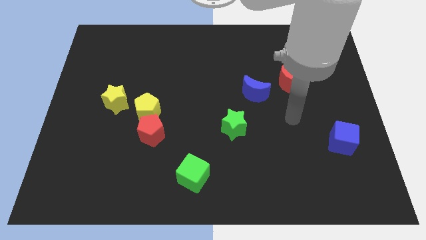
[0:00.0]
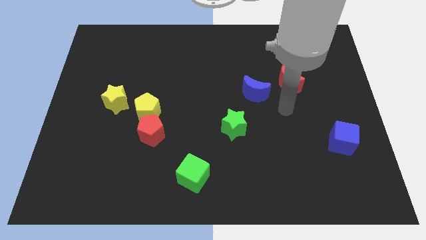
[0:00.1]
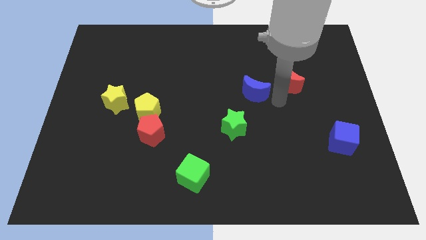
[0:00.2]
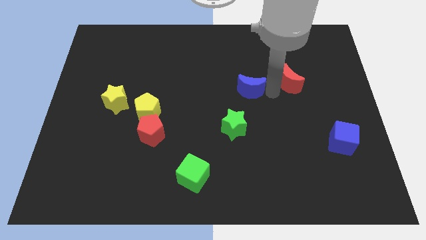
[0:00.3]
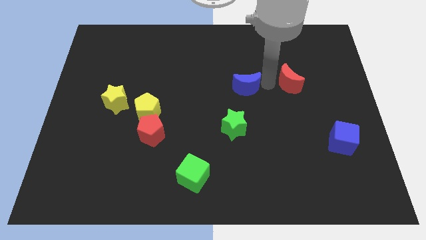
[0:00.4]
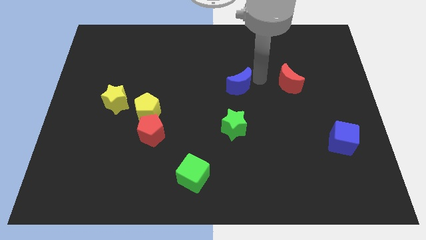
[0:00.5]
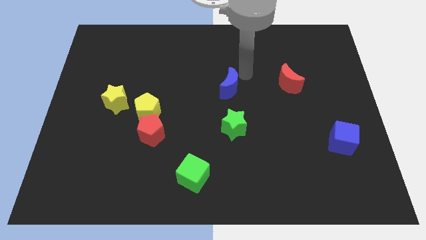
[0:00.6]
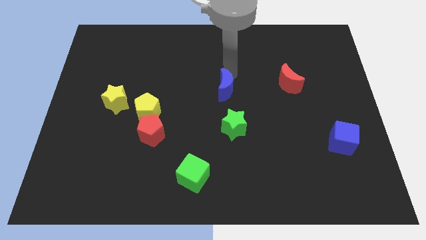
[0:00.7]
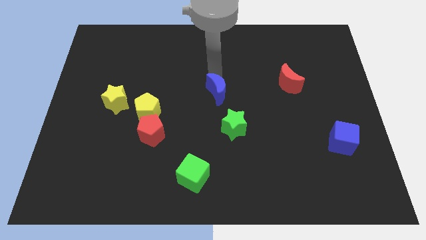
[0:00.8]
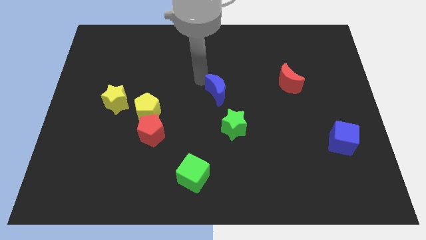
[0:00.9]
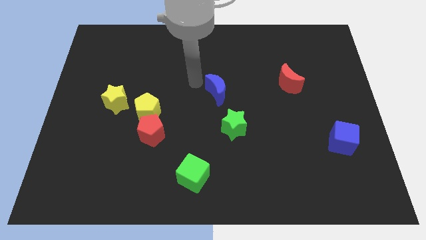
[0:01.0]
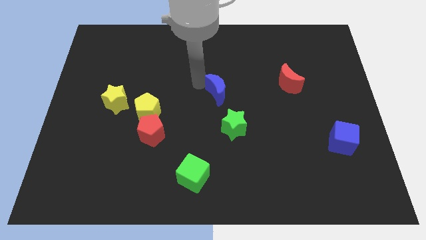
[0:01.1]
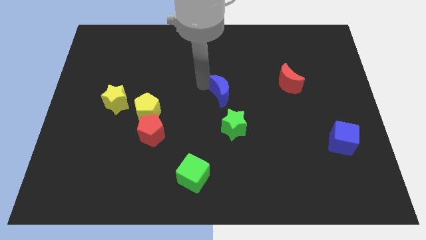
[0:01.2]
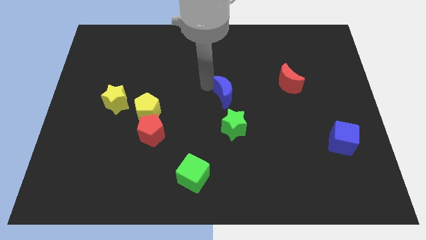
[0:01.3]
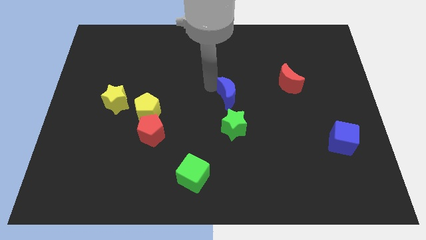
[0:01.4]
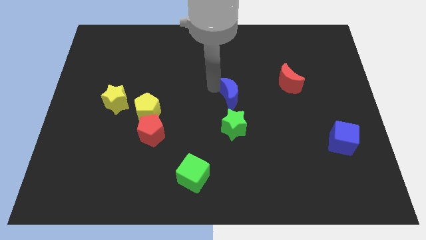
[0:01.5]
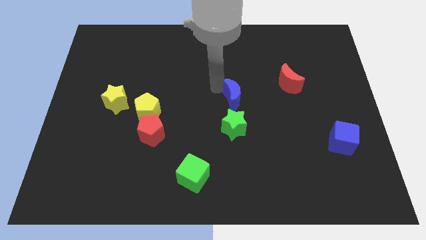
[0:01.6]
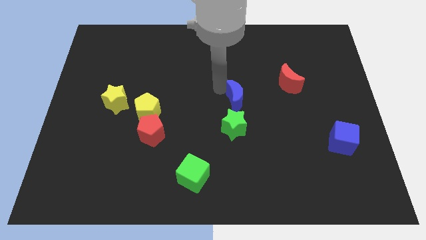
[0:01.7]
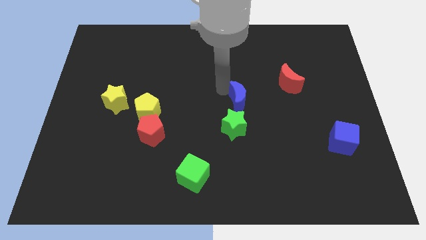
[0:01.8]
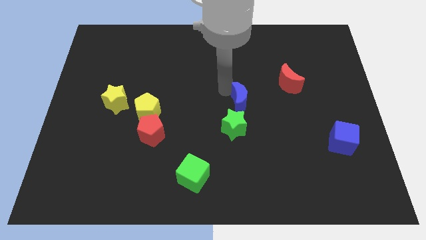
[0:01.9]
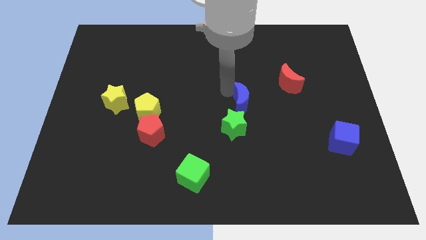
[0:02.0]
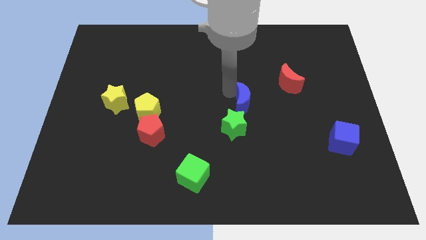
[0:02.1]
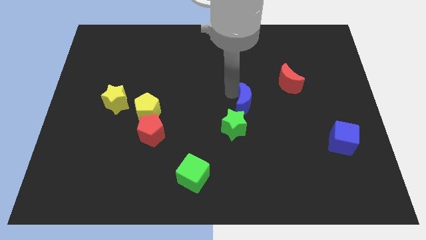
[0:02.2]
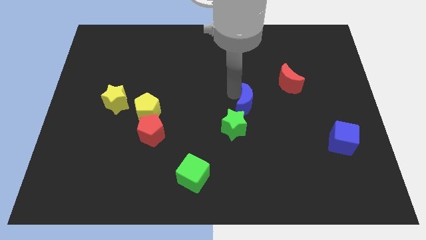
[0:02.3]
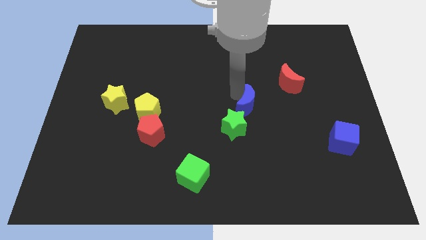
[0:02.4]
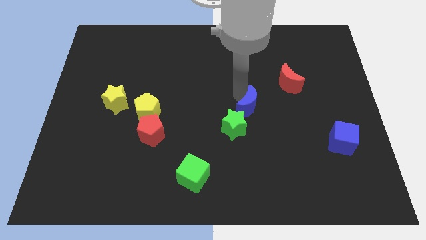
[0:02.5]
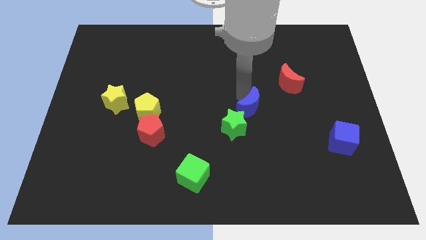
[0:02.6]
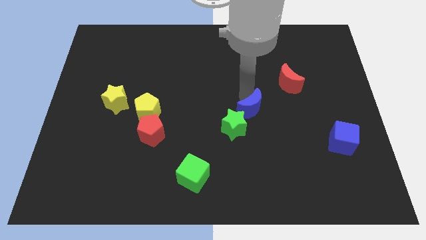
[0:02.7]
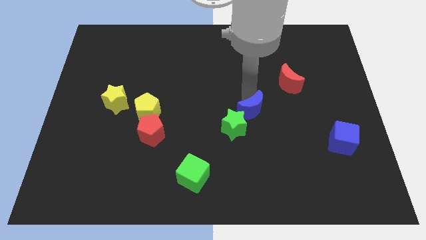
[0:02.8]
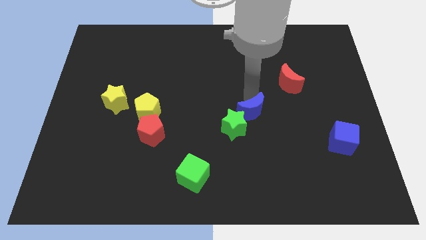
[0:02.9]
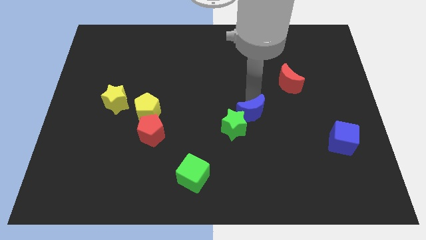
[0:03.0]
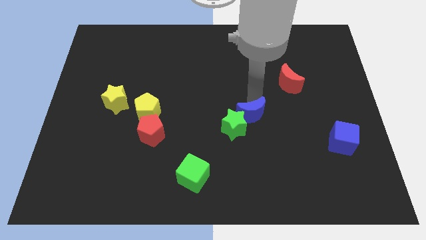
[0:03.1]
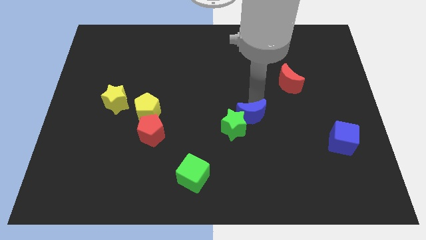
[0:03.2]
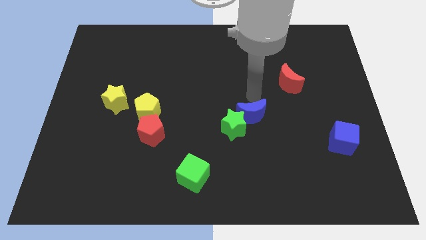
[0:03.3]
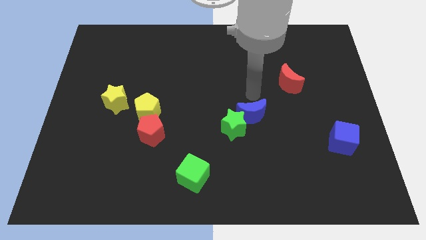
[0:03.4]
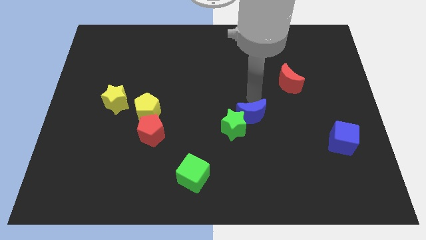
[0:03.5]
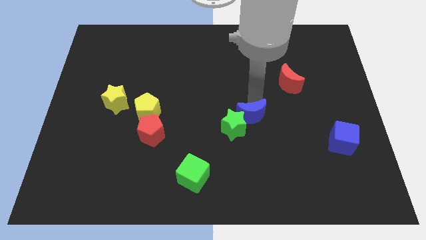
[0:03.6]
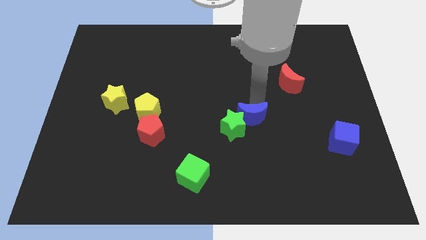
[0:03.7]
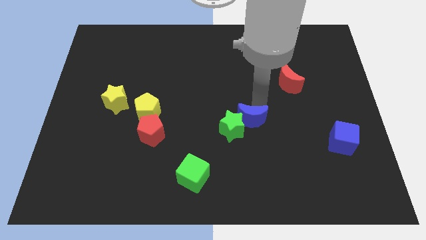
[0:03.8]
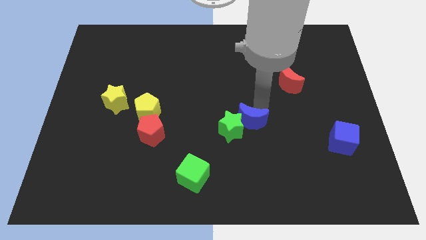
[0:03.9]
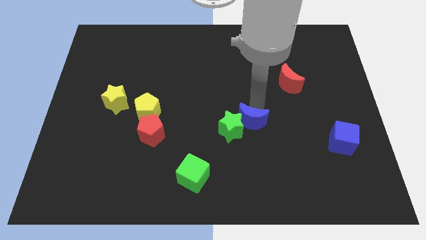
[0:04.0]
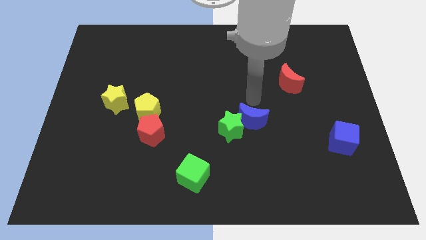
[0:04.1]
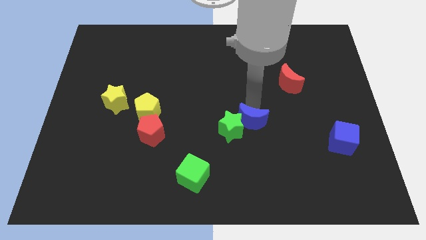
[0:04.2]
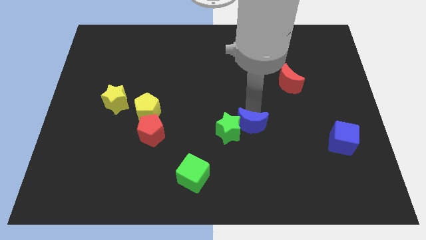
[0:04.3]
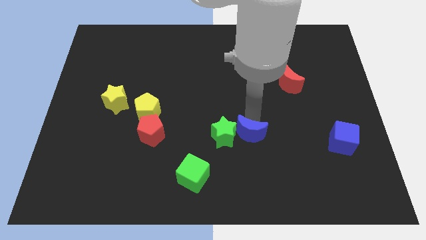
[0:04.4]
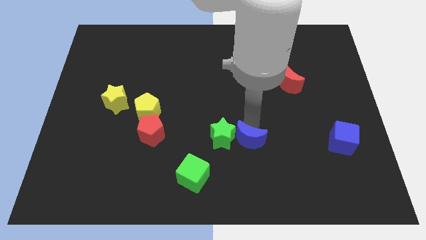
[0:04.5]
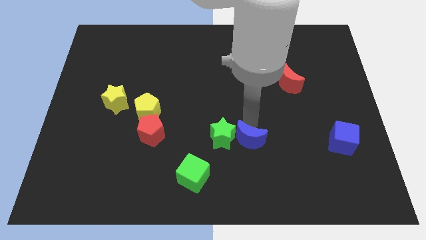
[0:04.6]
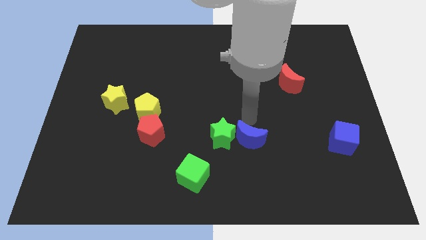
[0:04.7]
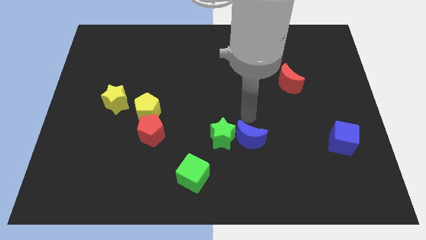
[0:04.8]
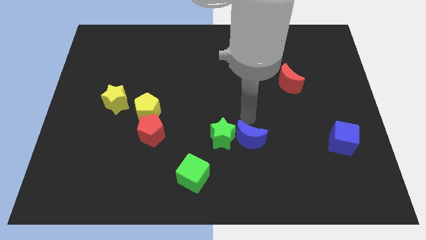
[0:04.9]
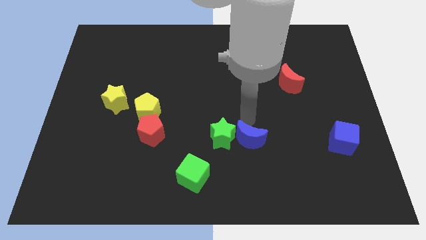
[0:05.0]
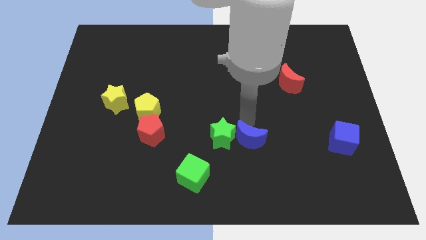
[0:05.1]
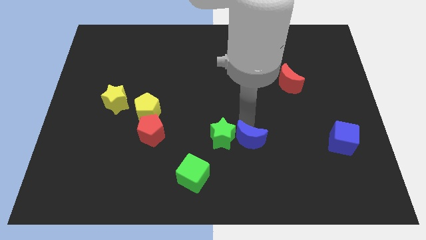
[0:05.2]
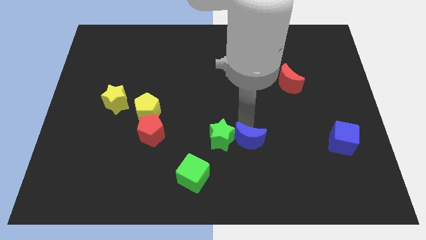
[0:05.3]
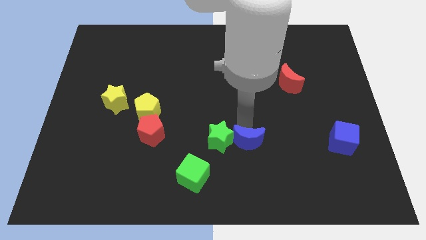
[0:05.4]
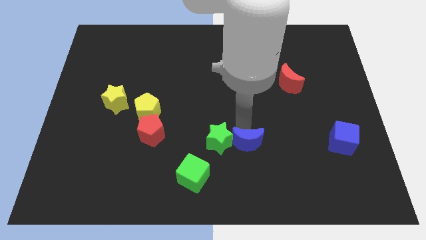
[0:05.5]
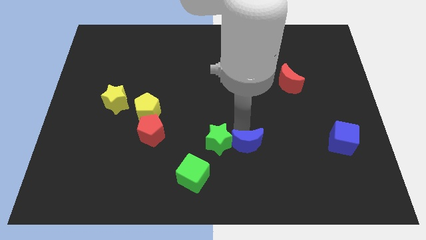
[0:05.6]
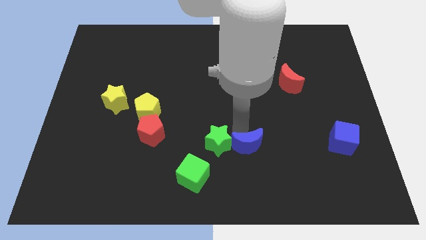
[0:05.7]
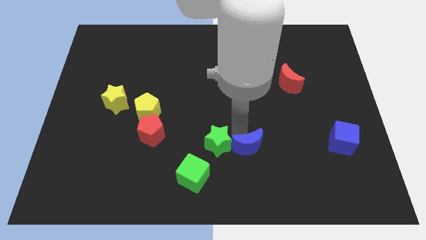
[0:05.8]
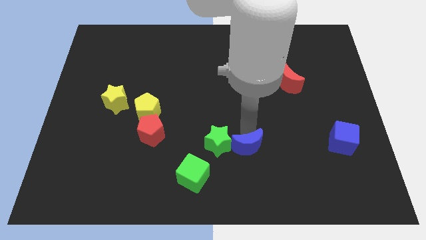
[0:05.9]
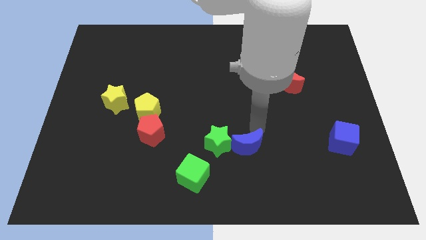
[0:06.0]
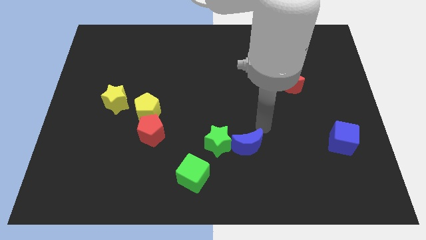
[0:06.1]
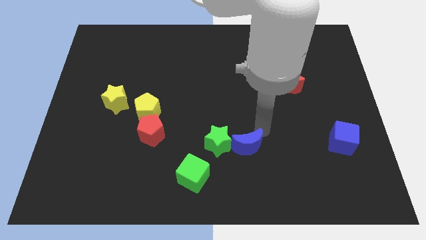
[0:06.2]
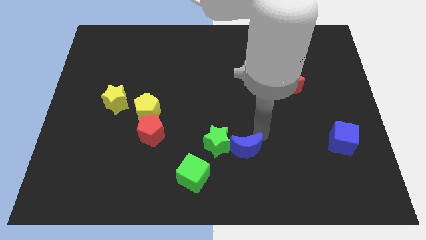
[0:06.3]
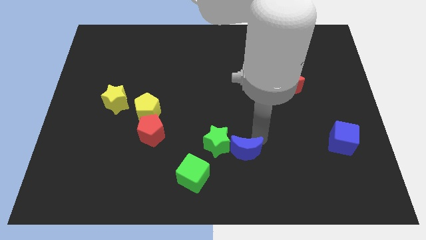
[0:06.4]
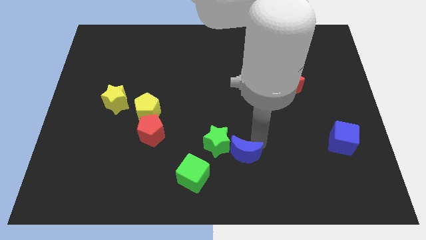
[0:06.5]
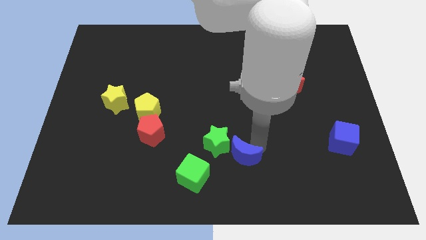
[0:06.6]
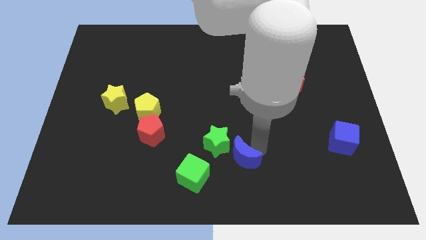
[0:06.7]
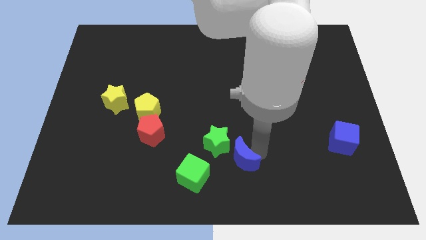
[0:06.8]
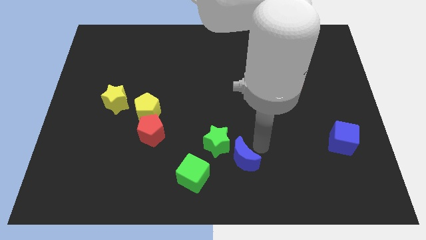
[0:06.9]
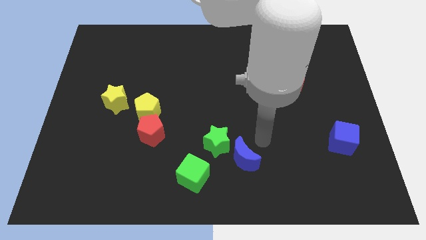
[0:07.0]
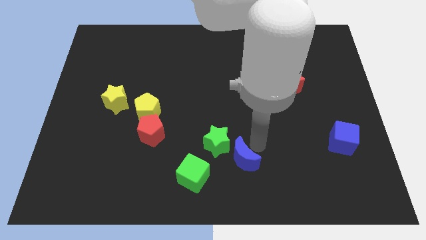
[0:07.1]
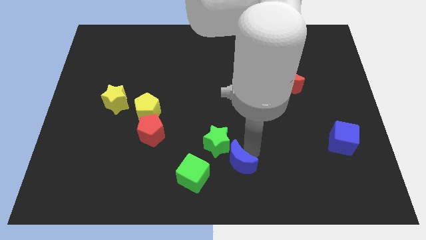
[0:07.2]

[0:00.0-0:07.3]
move the blue moon below the green star
